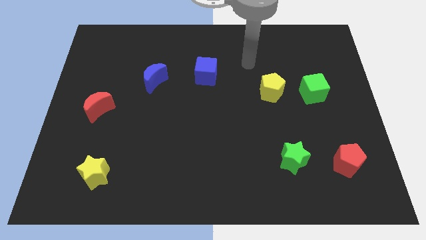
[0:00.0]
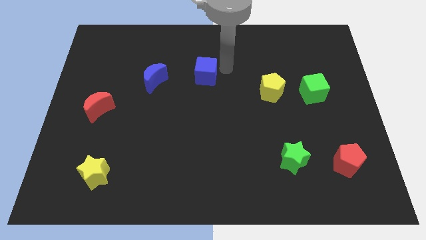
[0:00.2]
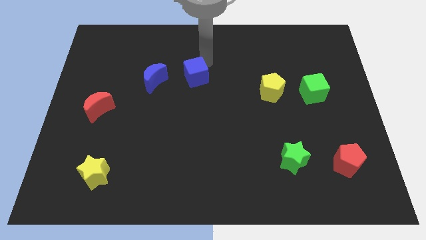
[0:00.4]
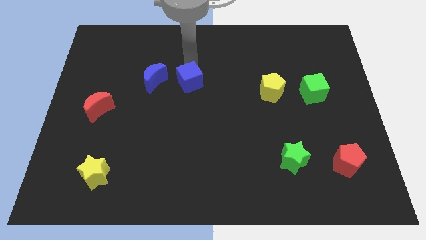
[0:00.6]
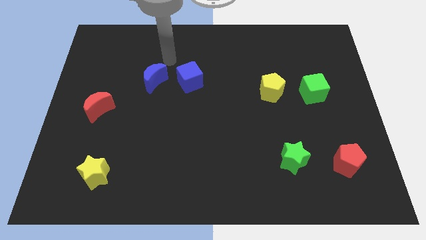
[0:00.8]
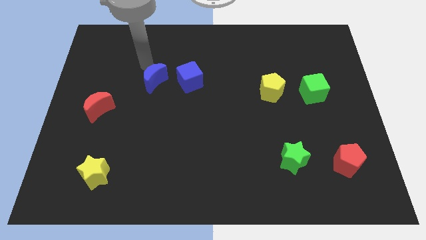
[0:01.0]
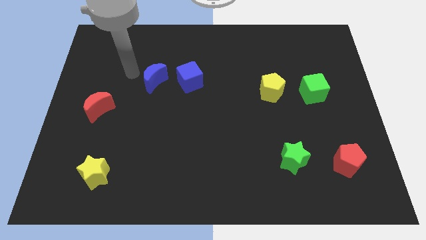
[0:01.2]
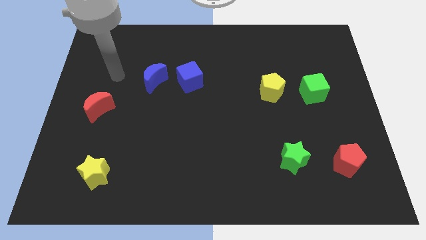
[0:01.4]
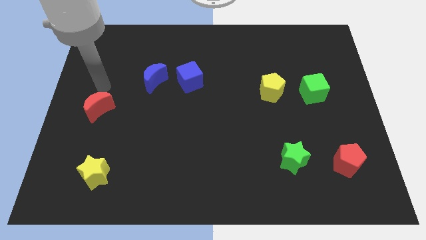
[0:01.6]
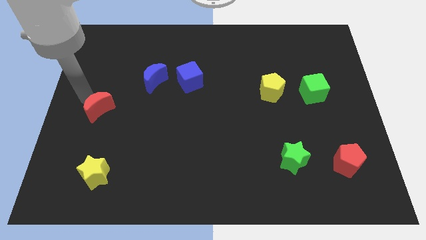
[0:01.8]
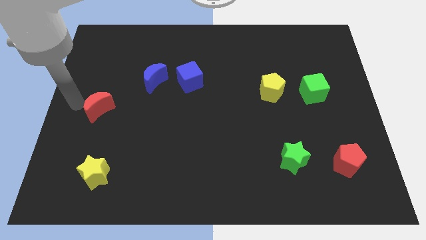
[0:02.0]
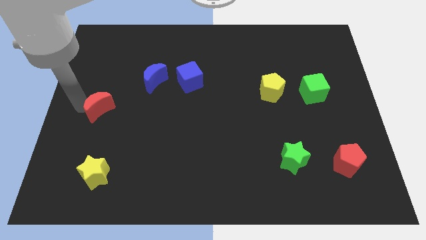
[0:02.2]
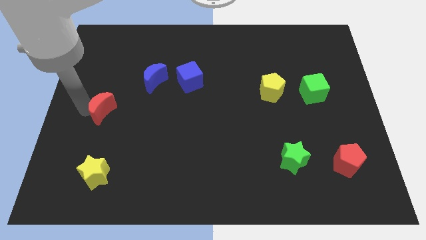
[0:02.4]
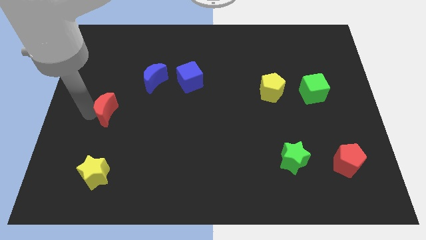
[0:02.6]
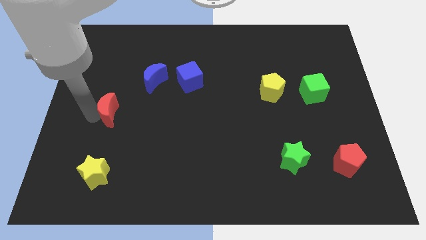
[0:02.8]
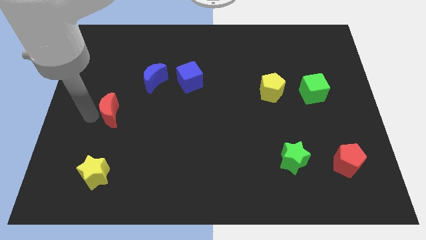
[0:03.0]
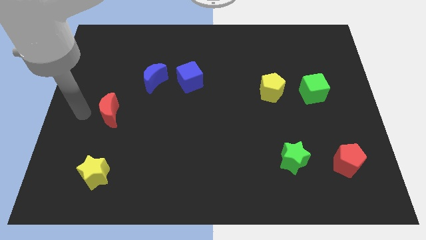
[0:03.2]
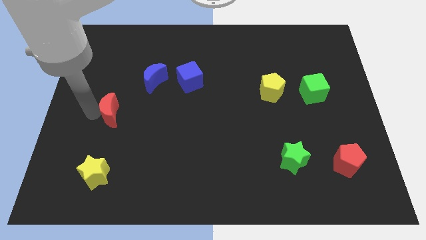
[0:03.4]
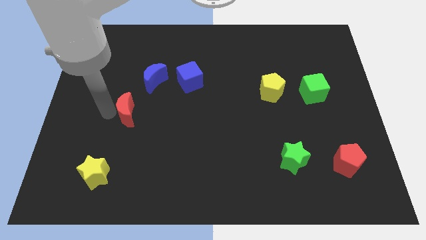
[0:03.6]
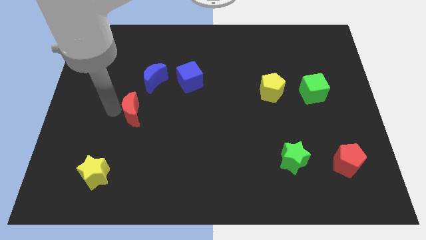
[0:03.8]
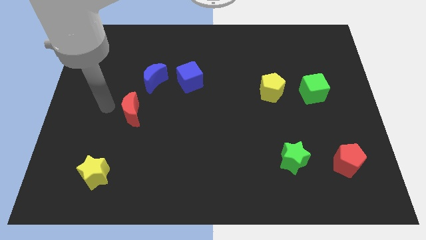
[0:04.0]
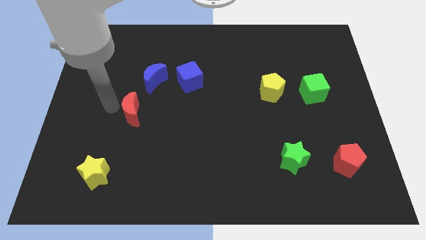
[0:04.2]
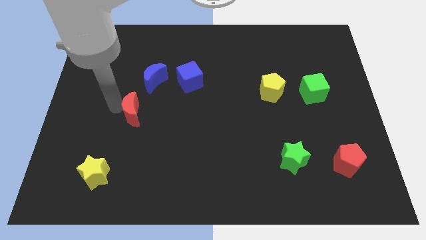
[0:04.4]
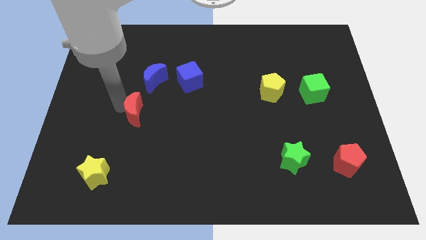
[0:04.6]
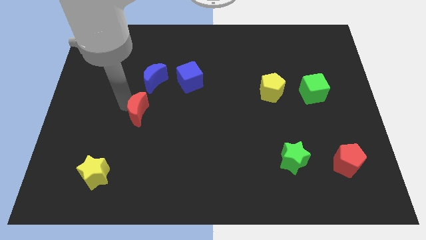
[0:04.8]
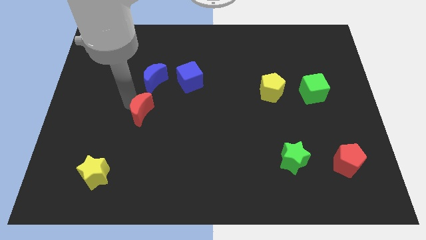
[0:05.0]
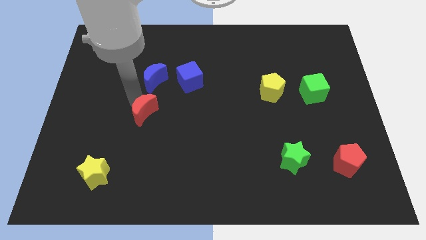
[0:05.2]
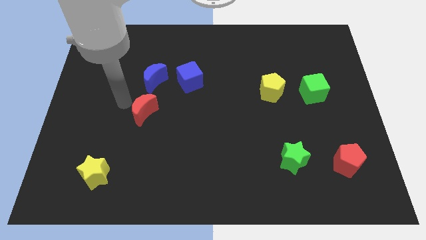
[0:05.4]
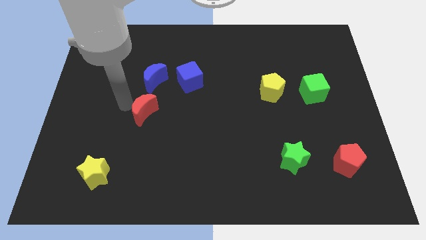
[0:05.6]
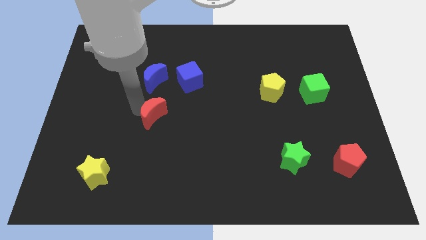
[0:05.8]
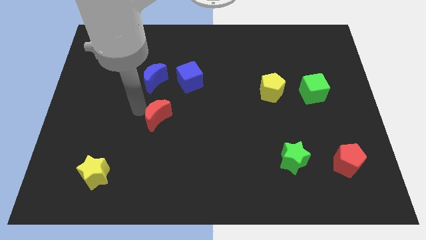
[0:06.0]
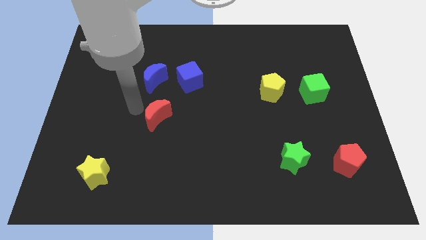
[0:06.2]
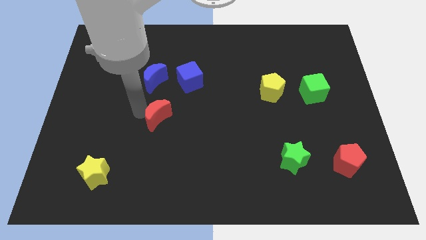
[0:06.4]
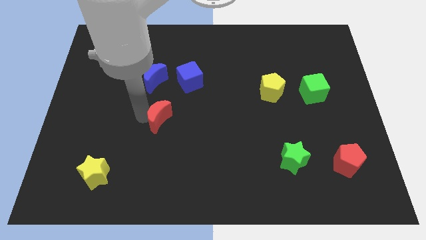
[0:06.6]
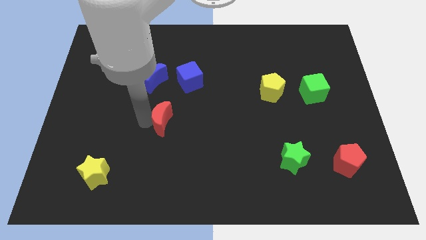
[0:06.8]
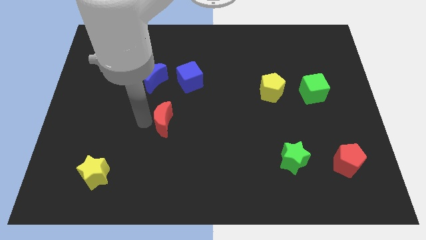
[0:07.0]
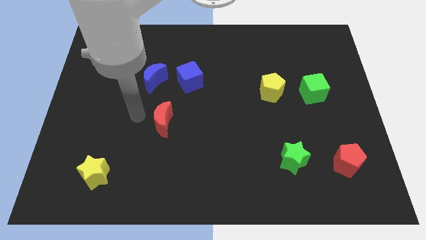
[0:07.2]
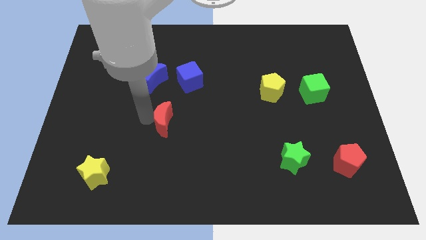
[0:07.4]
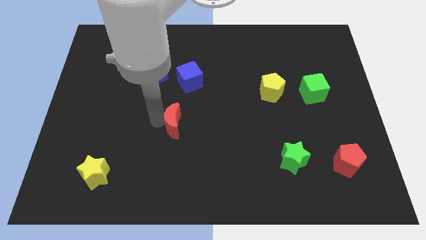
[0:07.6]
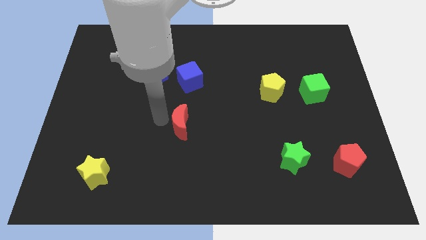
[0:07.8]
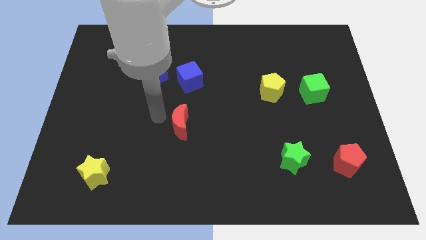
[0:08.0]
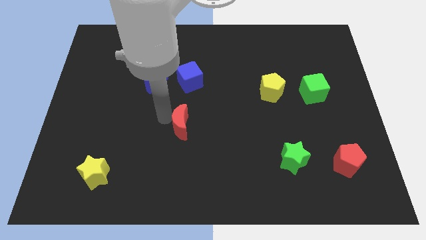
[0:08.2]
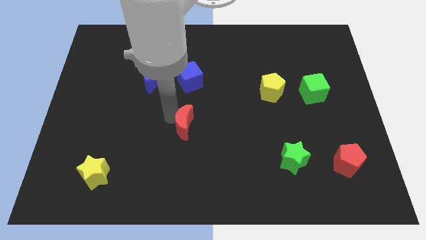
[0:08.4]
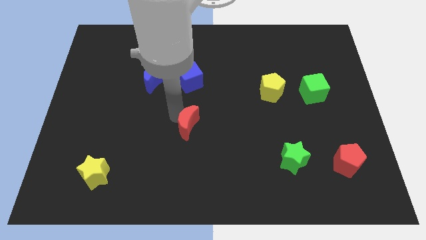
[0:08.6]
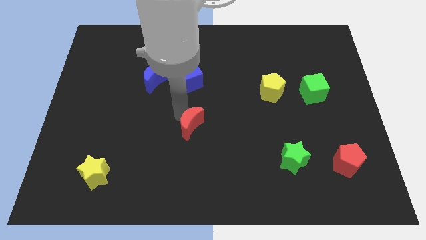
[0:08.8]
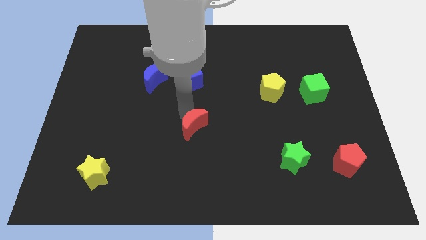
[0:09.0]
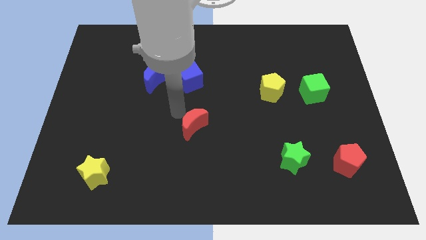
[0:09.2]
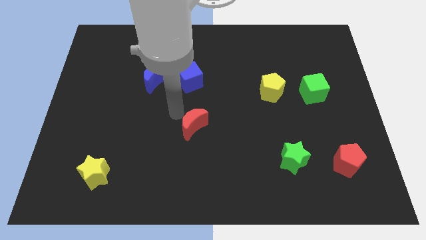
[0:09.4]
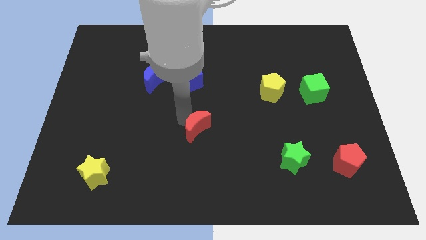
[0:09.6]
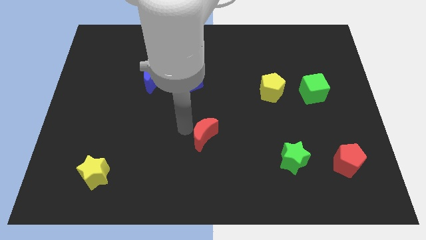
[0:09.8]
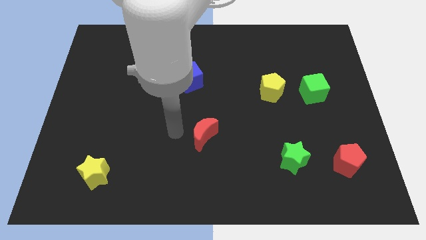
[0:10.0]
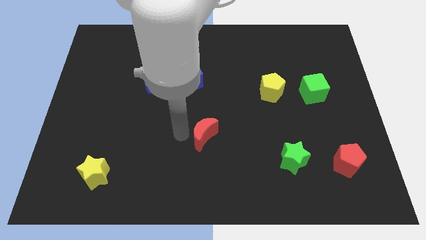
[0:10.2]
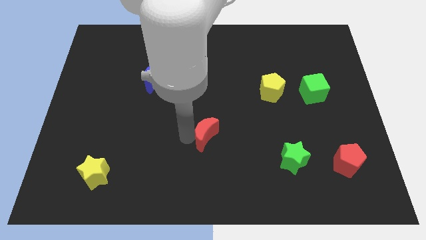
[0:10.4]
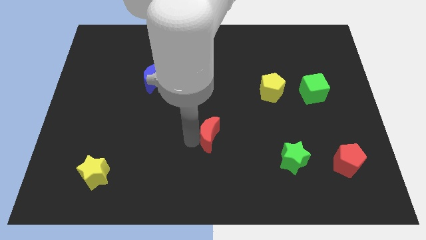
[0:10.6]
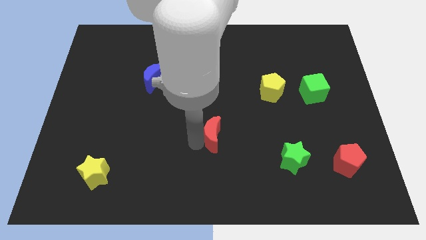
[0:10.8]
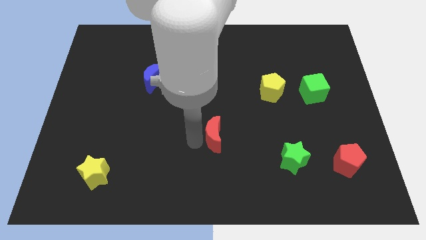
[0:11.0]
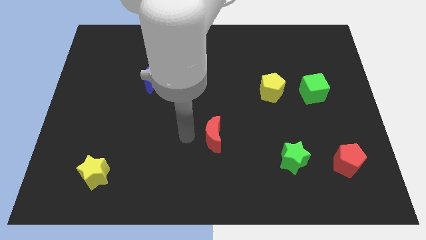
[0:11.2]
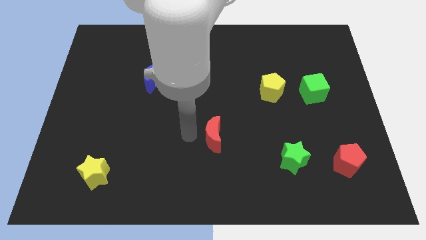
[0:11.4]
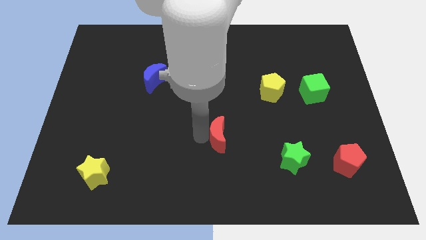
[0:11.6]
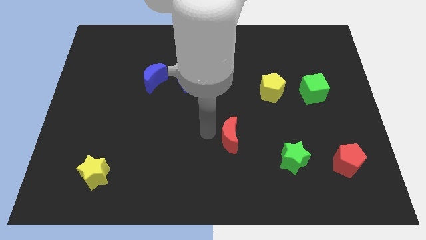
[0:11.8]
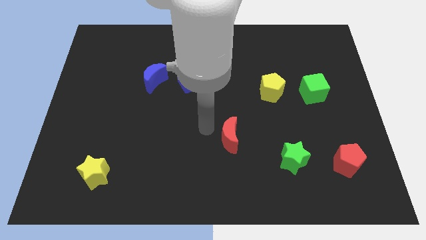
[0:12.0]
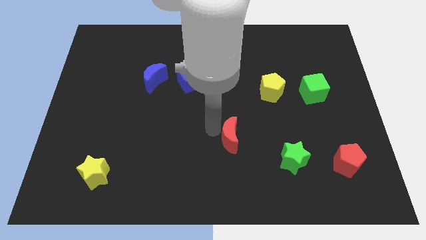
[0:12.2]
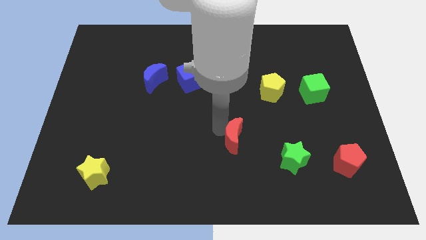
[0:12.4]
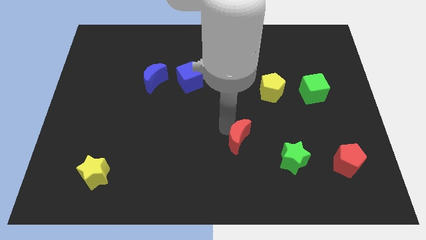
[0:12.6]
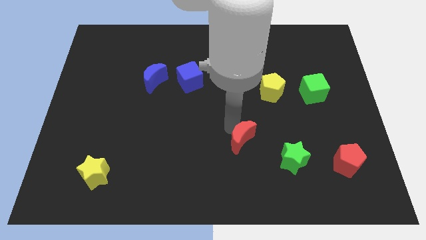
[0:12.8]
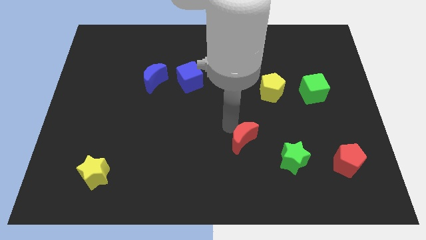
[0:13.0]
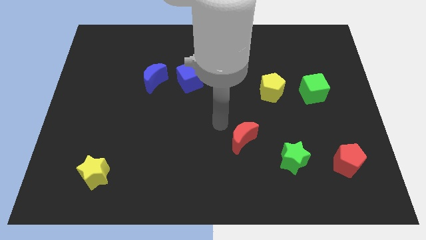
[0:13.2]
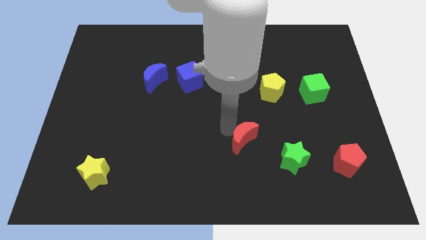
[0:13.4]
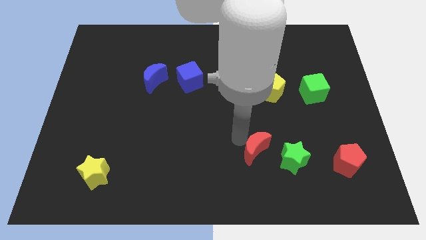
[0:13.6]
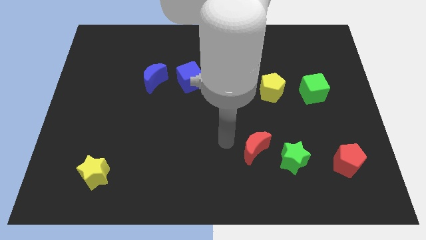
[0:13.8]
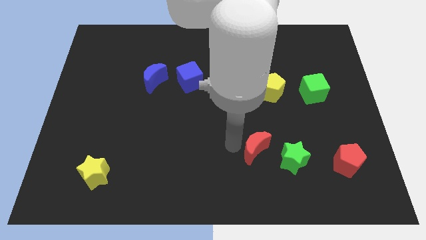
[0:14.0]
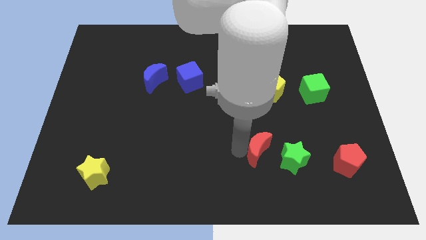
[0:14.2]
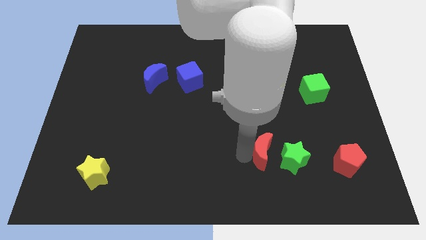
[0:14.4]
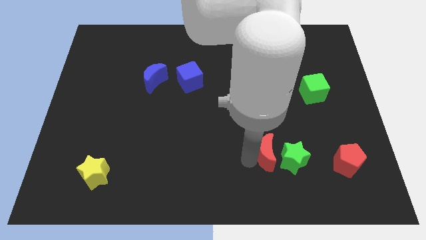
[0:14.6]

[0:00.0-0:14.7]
slide the red moon towards the green star

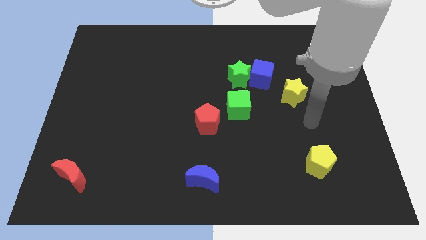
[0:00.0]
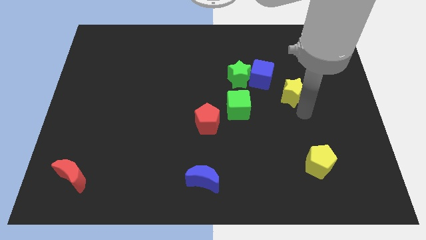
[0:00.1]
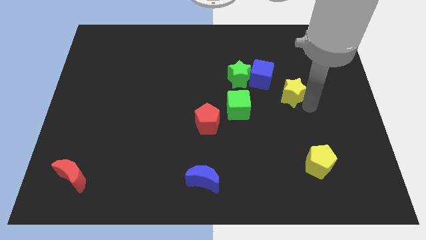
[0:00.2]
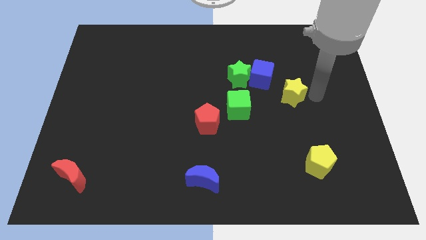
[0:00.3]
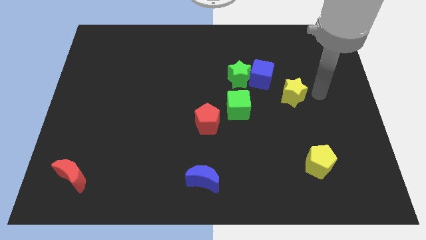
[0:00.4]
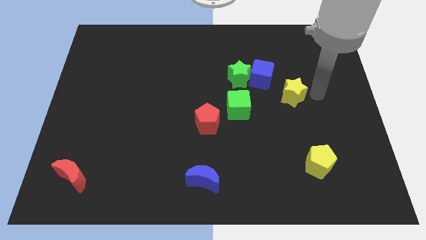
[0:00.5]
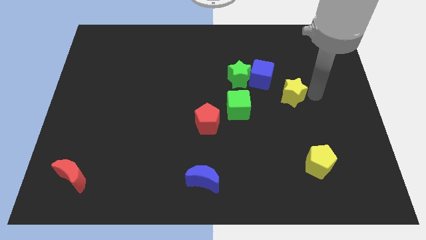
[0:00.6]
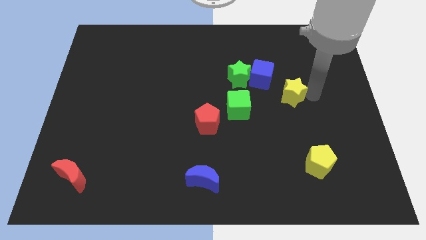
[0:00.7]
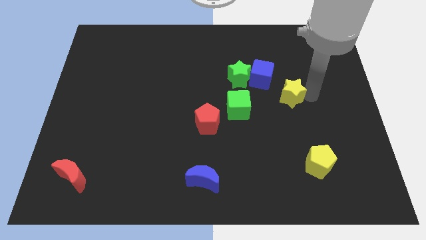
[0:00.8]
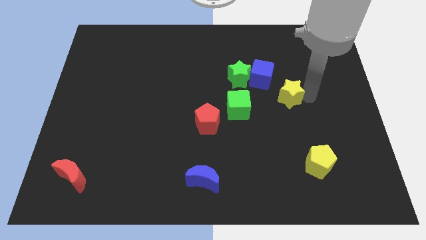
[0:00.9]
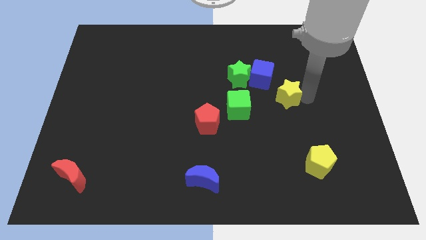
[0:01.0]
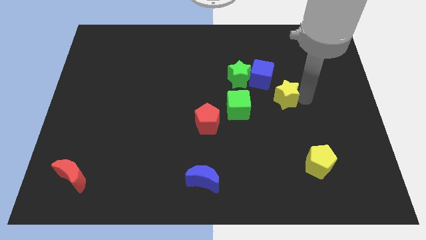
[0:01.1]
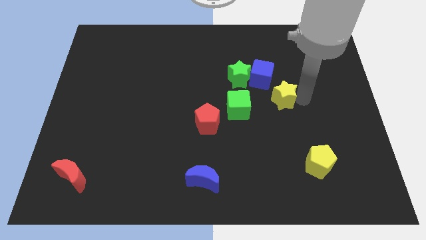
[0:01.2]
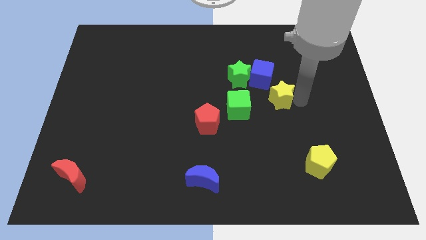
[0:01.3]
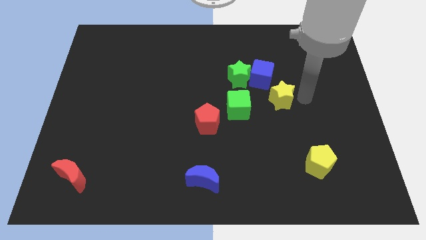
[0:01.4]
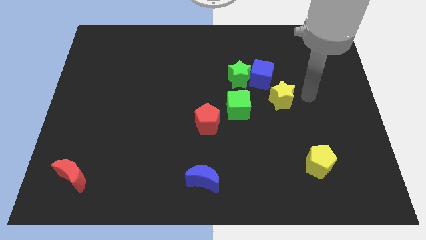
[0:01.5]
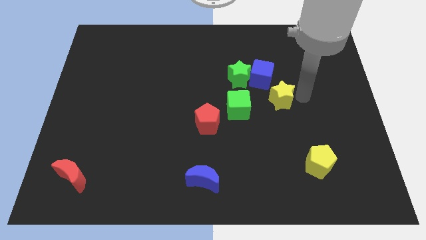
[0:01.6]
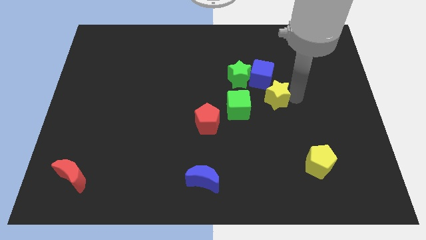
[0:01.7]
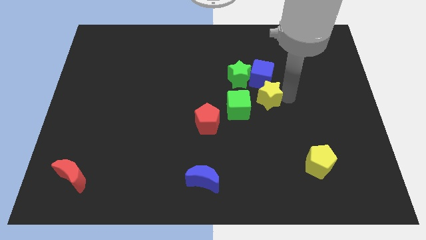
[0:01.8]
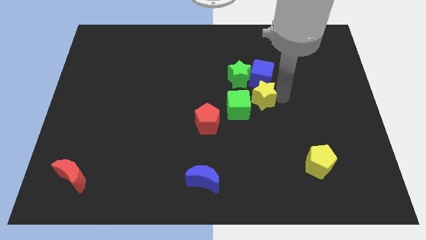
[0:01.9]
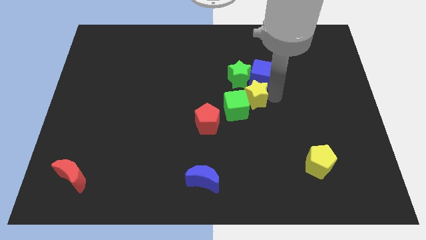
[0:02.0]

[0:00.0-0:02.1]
slide the yellow star towards the green cube
